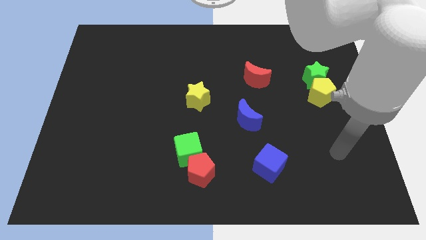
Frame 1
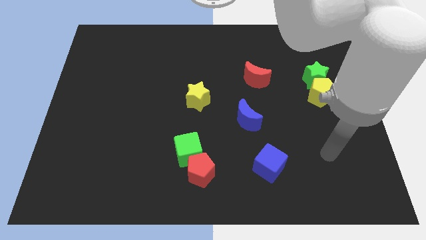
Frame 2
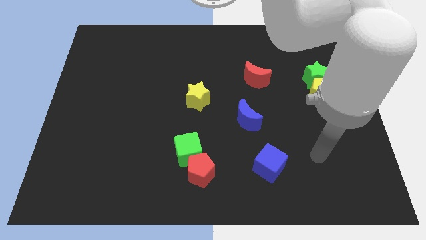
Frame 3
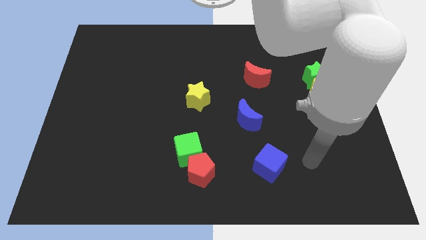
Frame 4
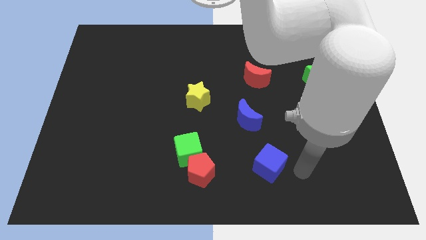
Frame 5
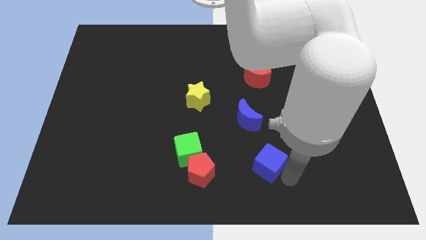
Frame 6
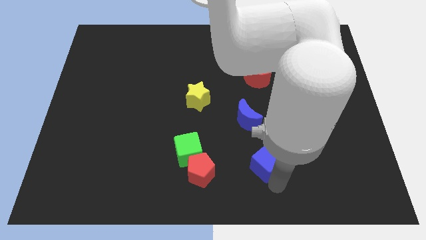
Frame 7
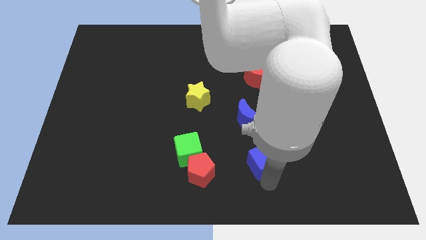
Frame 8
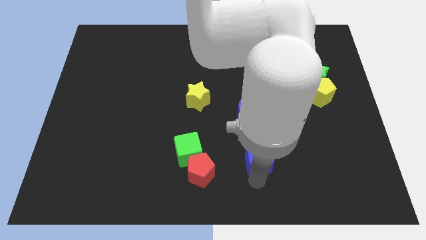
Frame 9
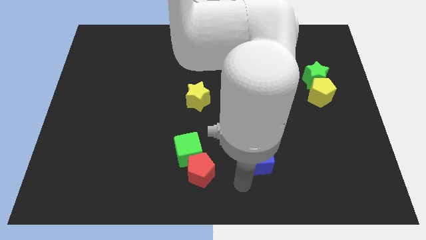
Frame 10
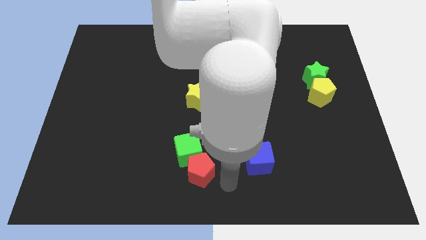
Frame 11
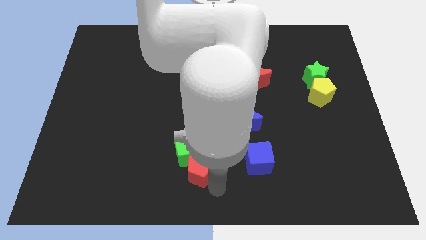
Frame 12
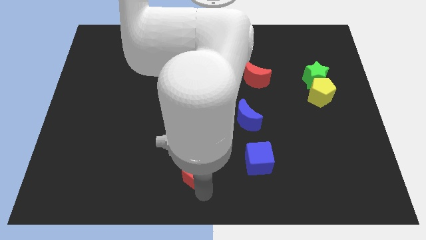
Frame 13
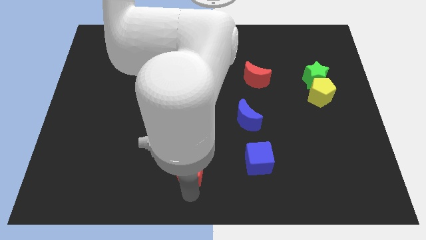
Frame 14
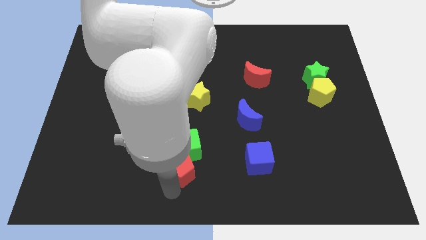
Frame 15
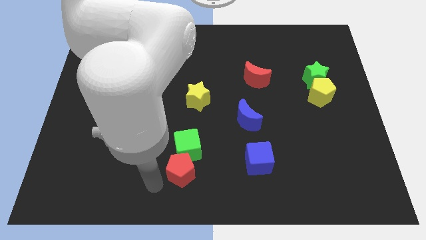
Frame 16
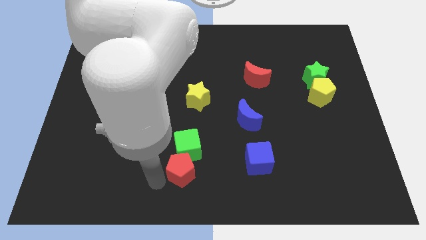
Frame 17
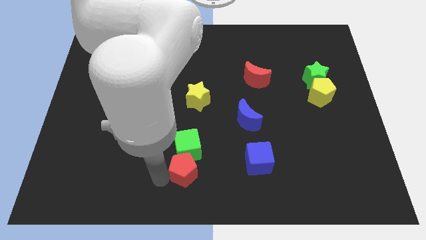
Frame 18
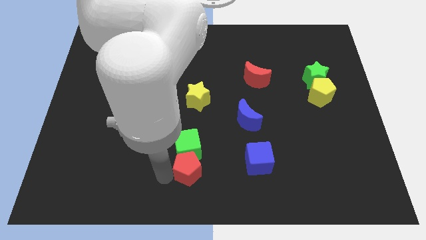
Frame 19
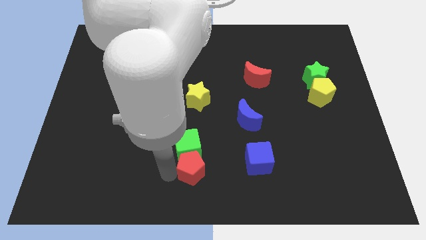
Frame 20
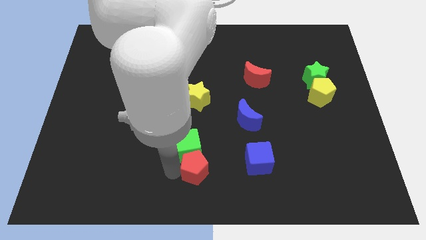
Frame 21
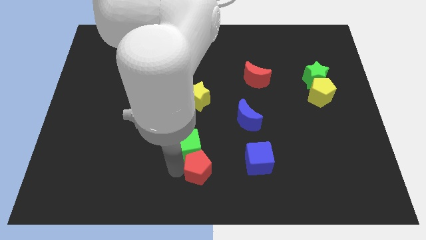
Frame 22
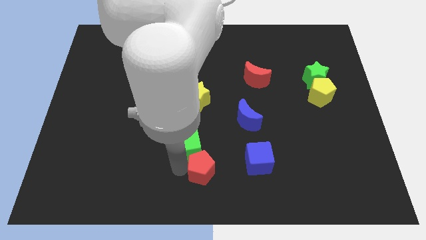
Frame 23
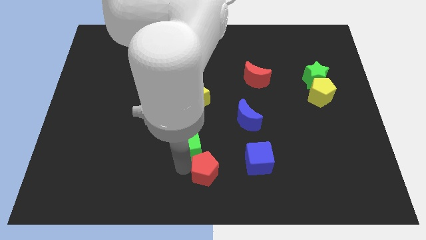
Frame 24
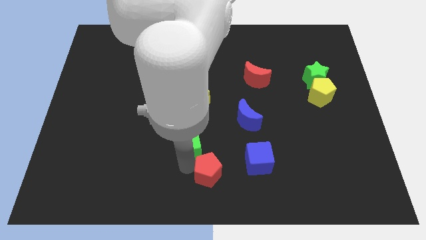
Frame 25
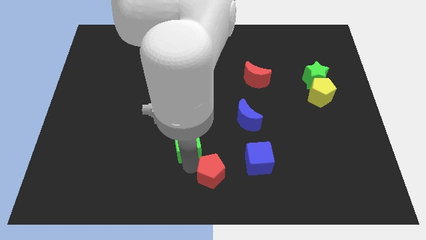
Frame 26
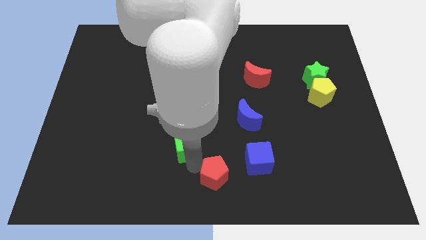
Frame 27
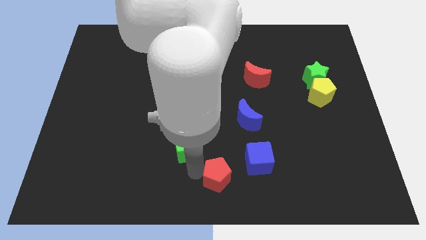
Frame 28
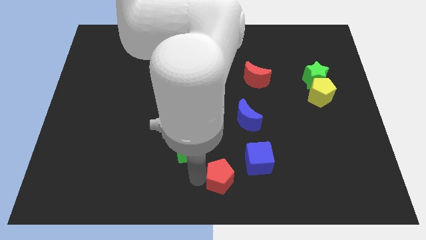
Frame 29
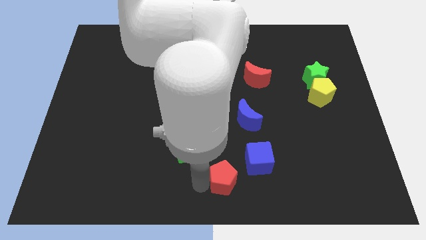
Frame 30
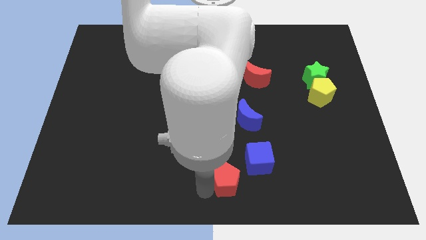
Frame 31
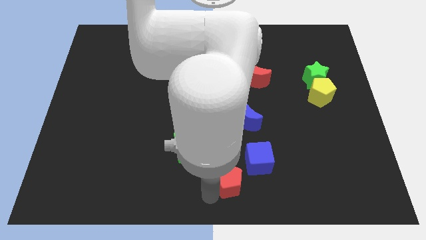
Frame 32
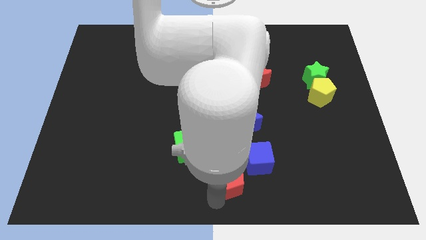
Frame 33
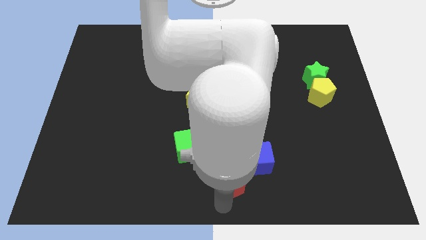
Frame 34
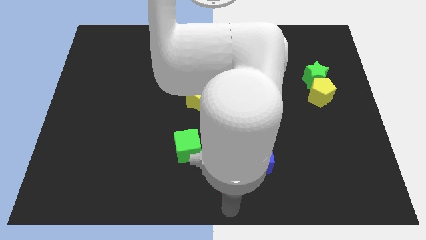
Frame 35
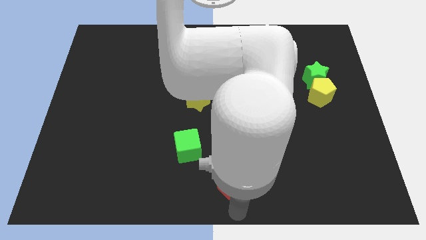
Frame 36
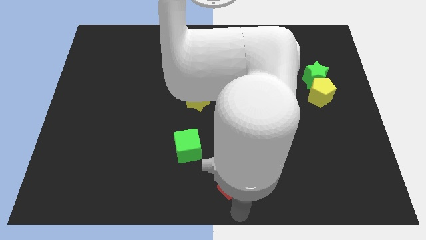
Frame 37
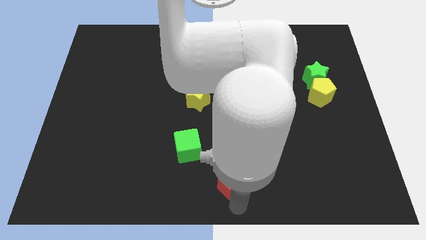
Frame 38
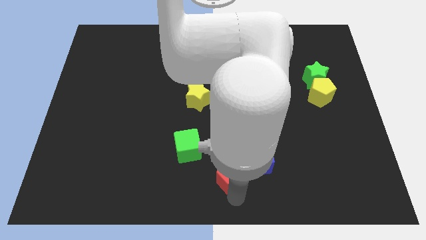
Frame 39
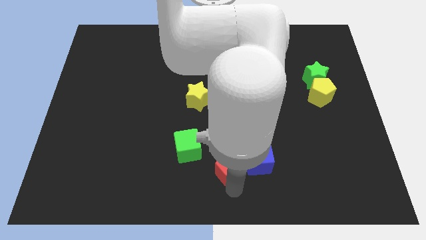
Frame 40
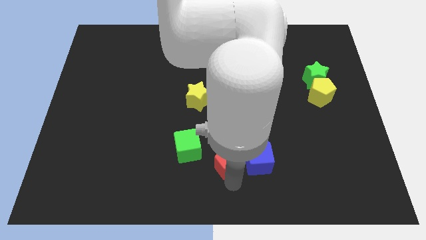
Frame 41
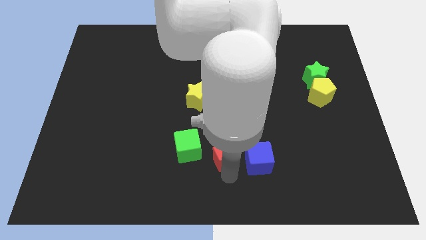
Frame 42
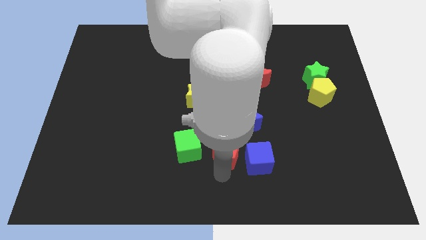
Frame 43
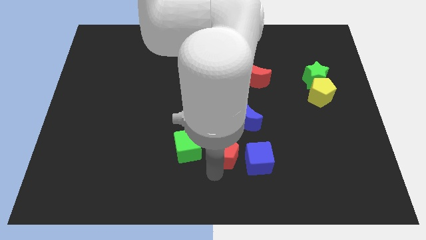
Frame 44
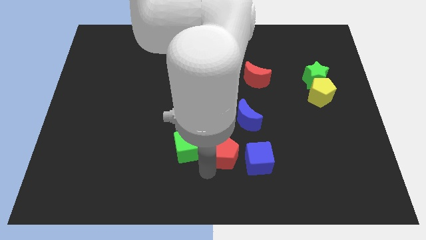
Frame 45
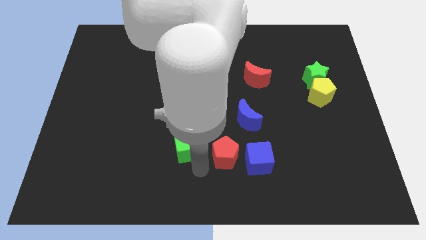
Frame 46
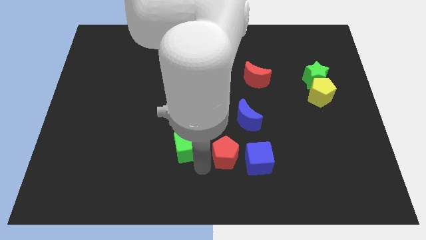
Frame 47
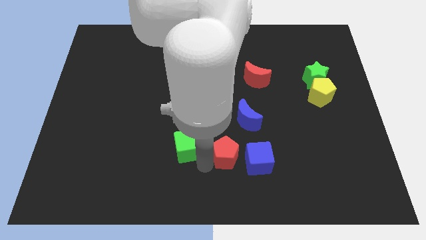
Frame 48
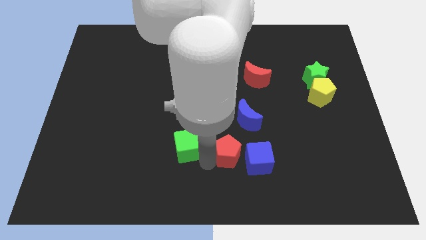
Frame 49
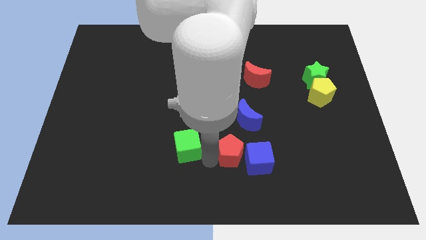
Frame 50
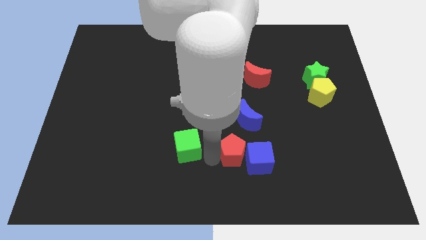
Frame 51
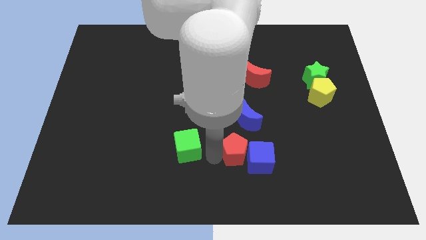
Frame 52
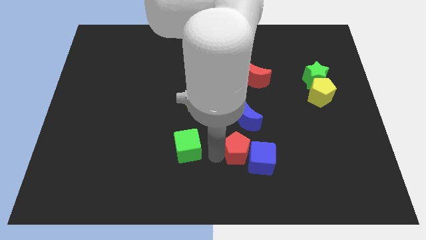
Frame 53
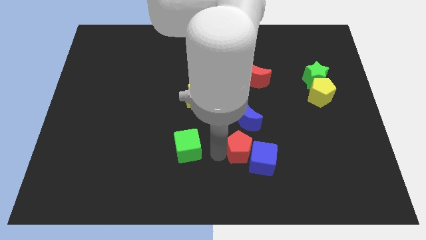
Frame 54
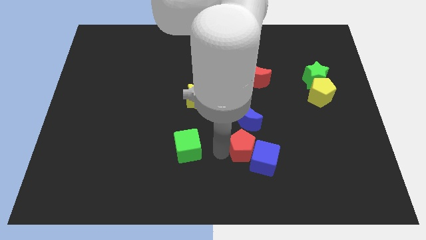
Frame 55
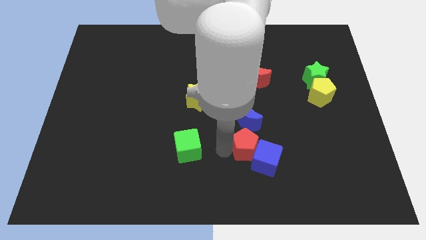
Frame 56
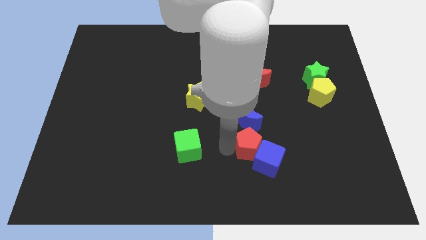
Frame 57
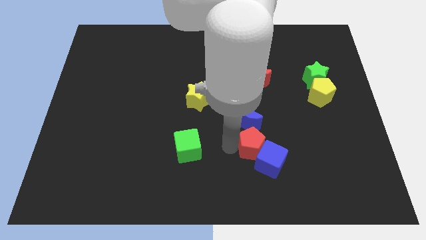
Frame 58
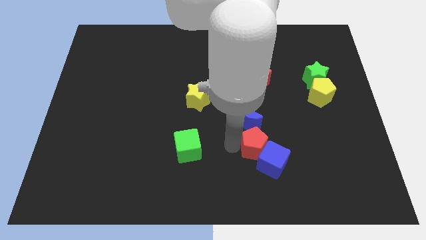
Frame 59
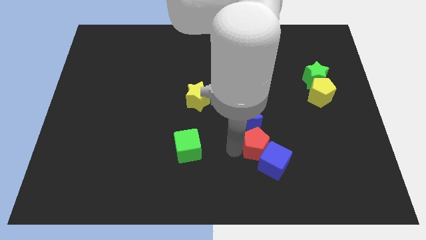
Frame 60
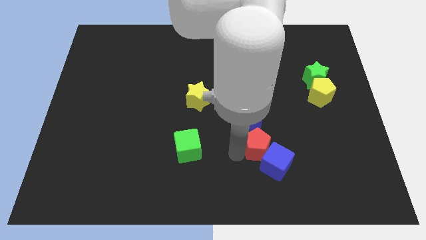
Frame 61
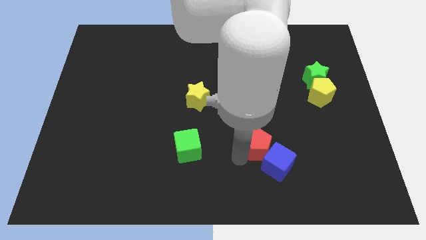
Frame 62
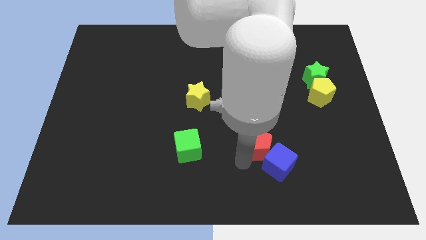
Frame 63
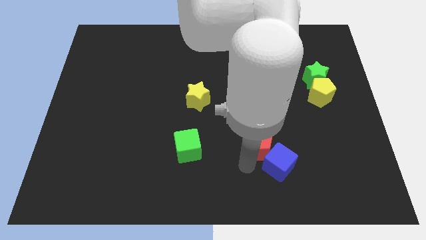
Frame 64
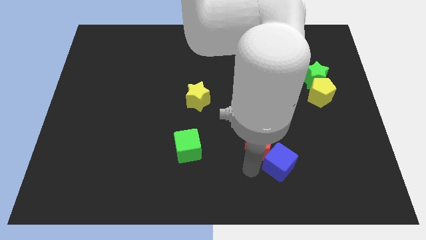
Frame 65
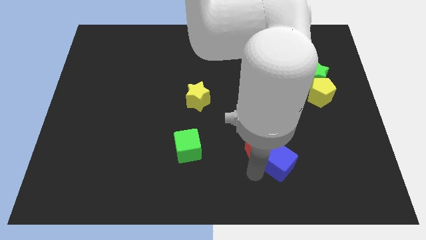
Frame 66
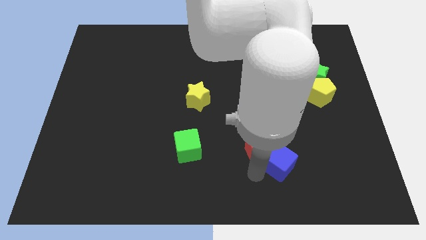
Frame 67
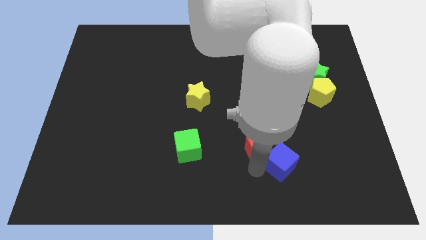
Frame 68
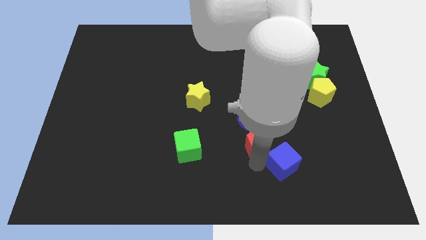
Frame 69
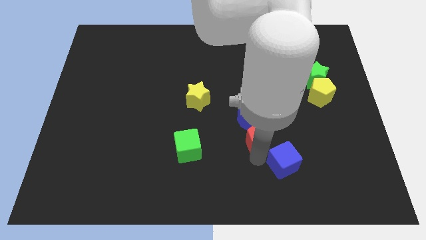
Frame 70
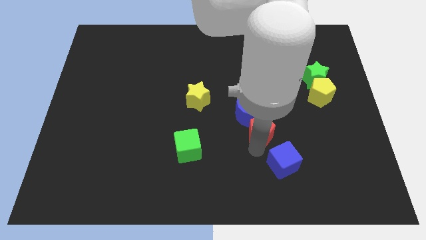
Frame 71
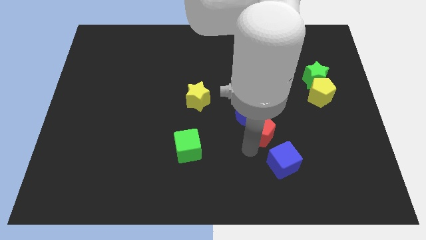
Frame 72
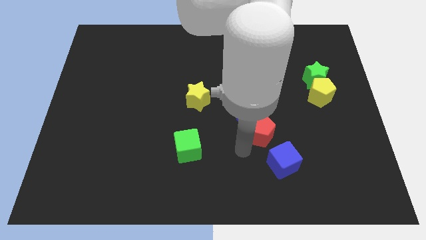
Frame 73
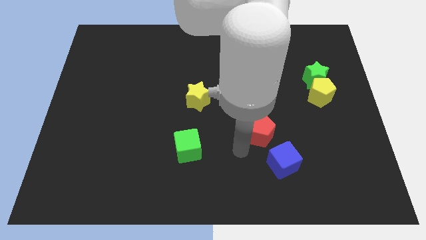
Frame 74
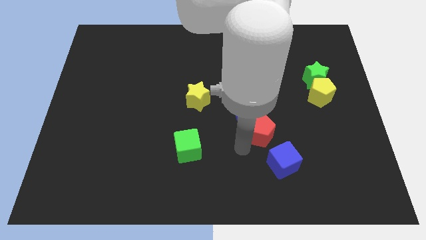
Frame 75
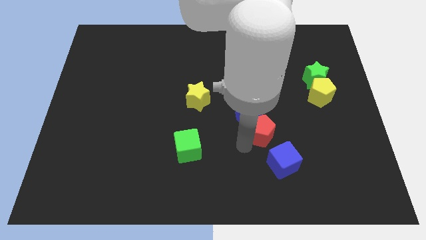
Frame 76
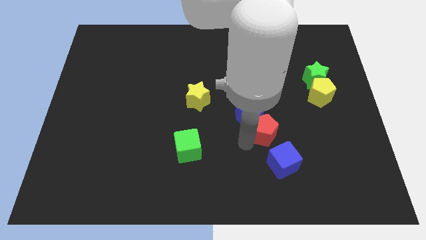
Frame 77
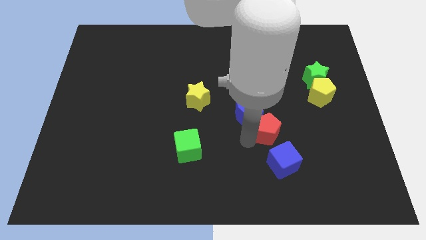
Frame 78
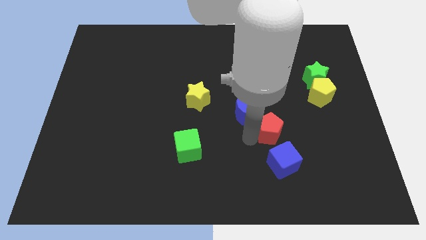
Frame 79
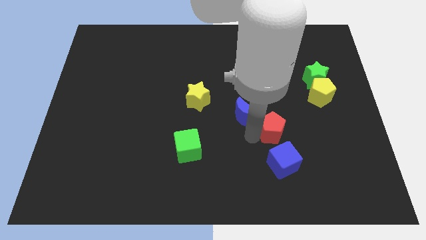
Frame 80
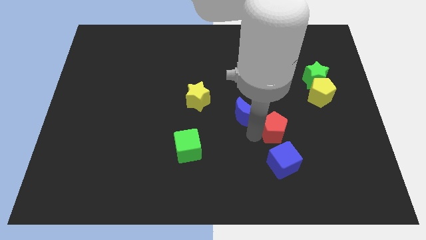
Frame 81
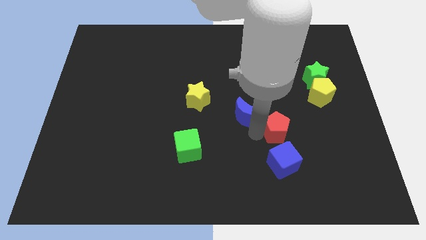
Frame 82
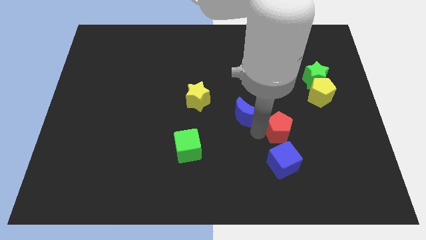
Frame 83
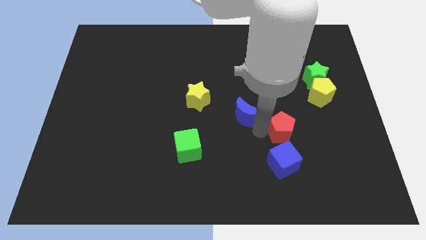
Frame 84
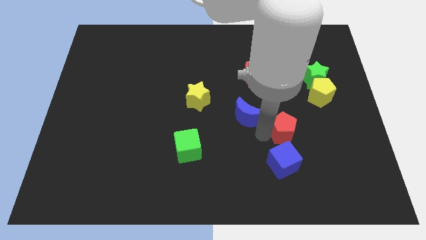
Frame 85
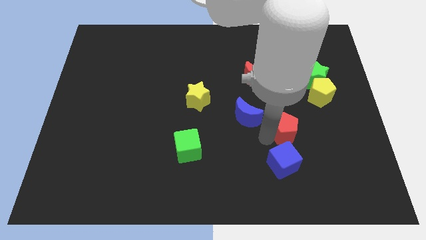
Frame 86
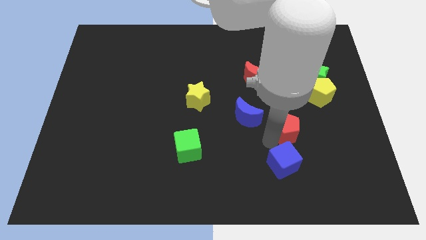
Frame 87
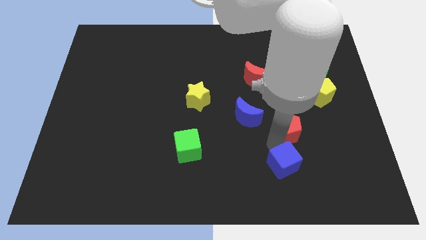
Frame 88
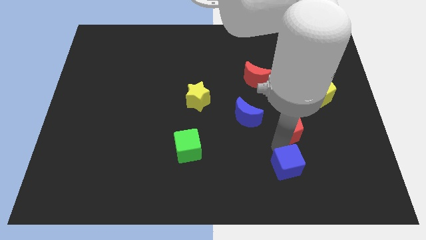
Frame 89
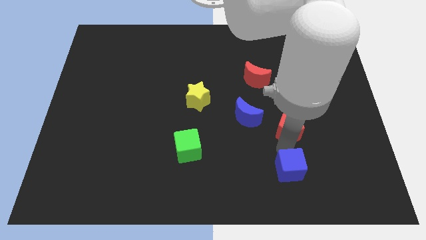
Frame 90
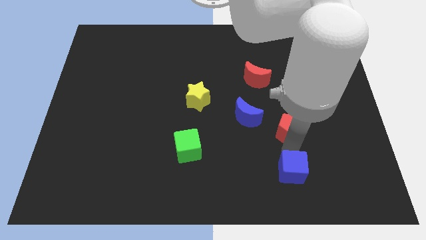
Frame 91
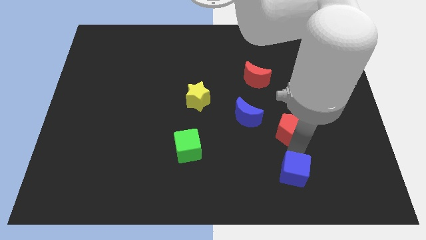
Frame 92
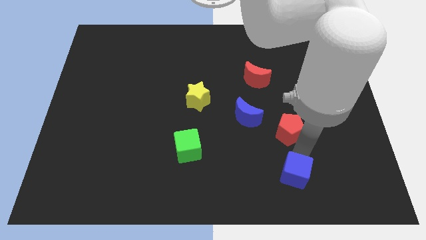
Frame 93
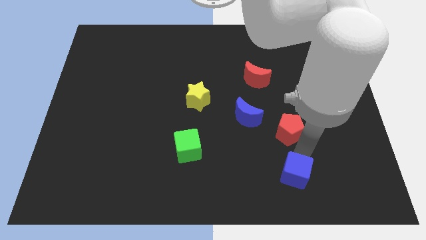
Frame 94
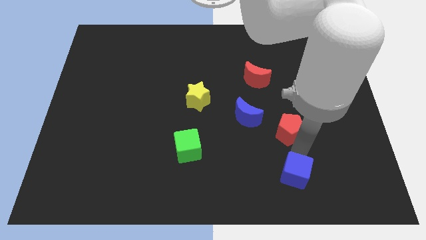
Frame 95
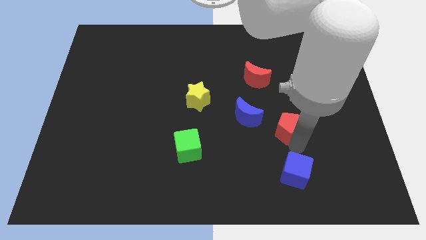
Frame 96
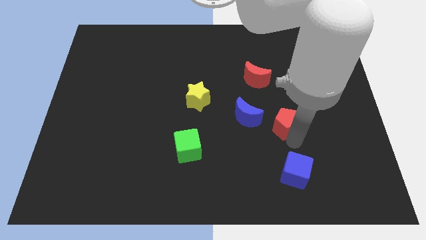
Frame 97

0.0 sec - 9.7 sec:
move the red pentagon up and then to the right
